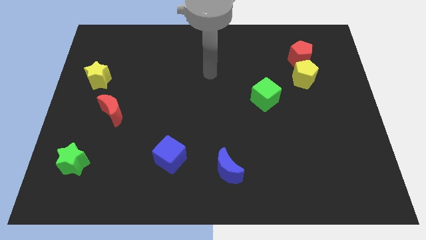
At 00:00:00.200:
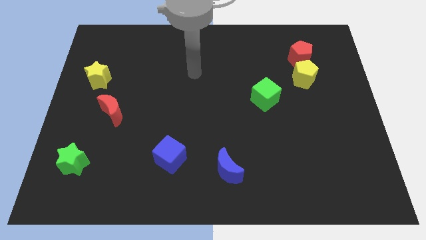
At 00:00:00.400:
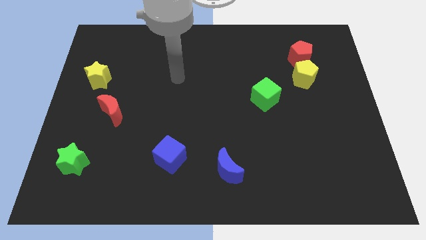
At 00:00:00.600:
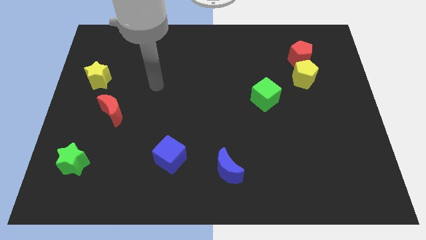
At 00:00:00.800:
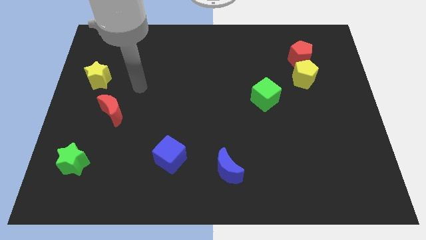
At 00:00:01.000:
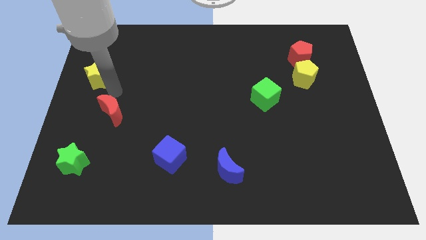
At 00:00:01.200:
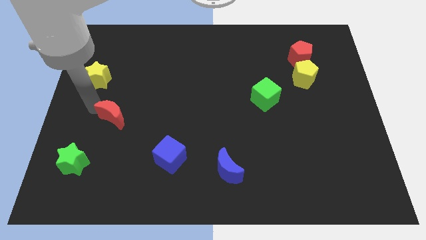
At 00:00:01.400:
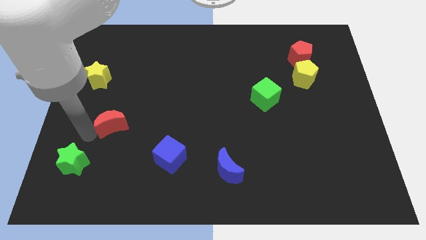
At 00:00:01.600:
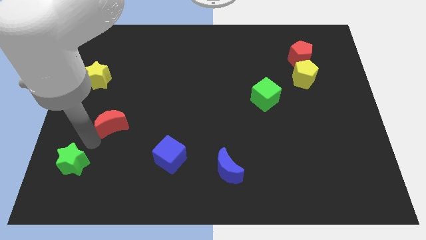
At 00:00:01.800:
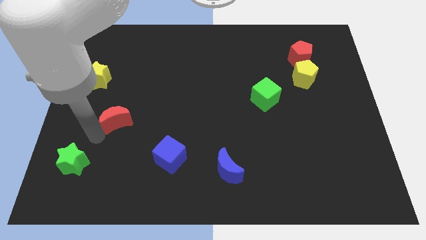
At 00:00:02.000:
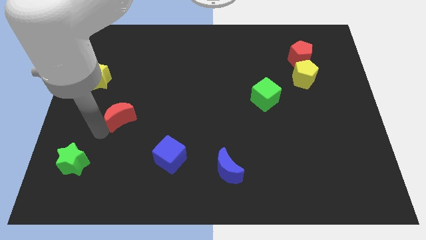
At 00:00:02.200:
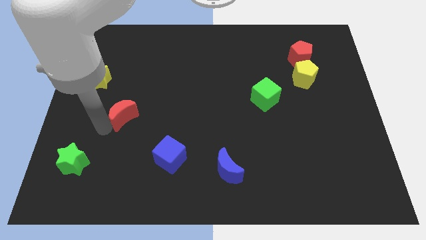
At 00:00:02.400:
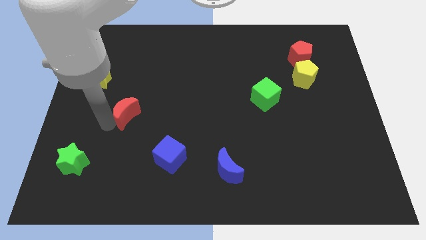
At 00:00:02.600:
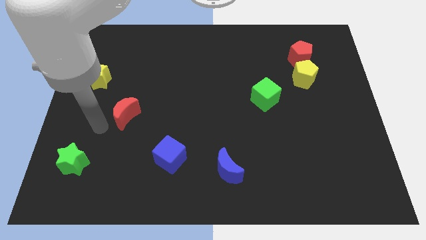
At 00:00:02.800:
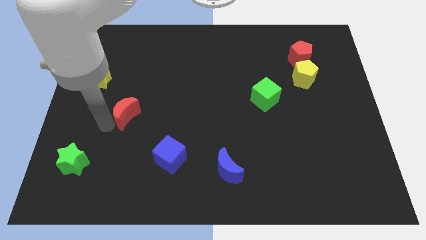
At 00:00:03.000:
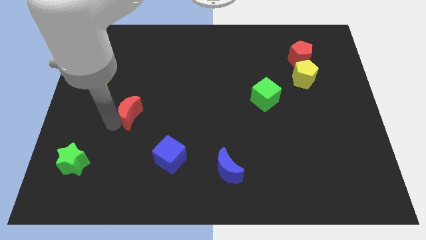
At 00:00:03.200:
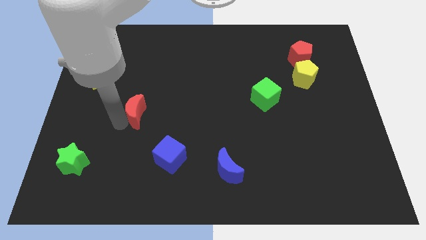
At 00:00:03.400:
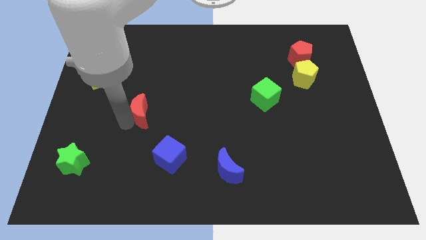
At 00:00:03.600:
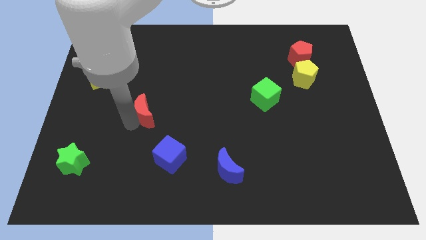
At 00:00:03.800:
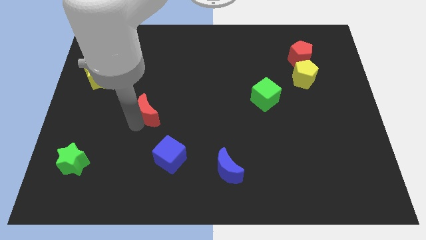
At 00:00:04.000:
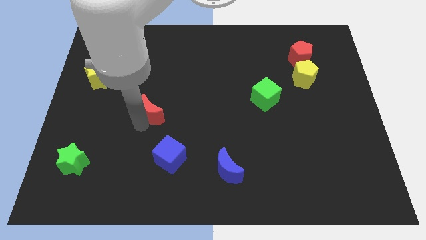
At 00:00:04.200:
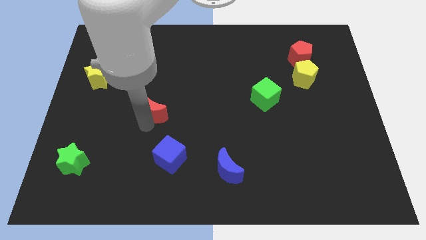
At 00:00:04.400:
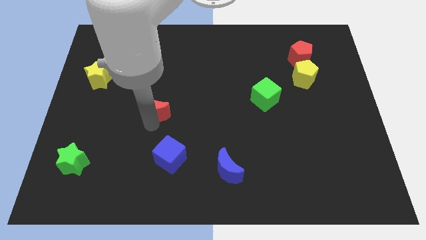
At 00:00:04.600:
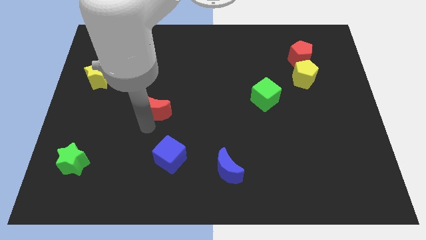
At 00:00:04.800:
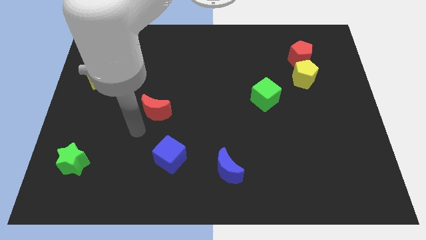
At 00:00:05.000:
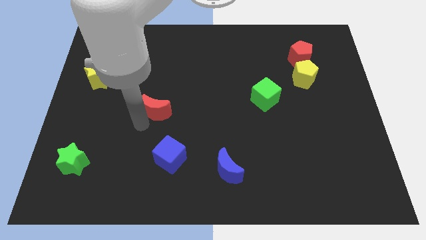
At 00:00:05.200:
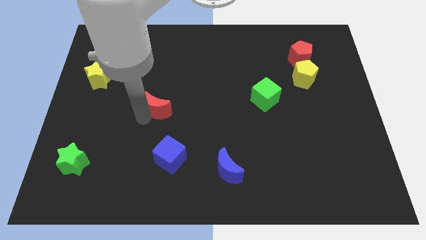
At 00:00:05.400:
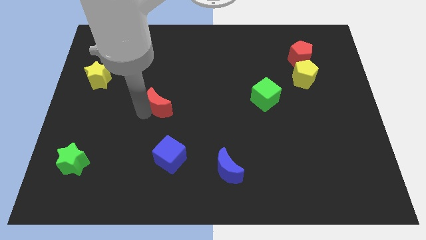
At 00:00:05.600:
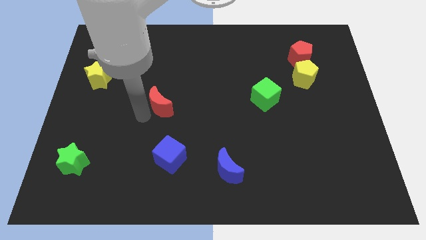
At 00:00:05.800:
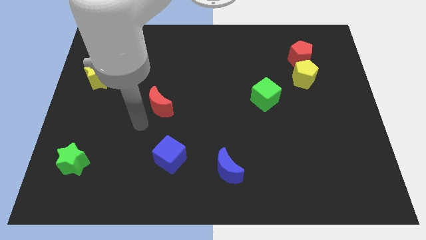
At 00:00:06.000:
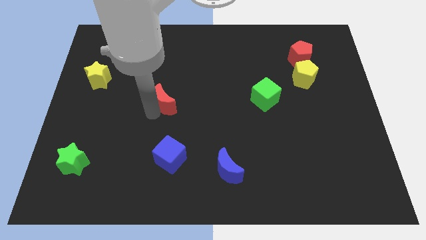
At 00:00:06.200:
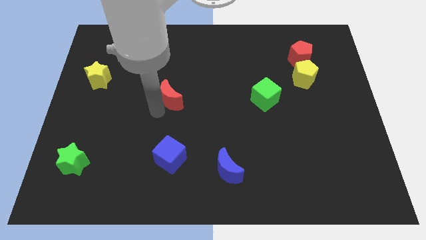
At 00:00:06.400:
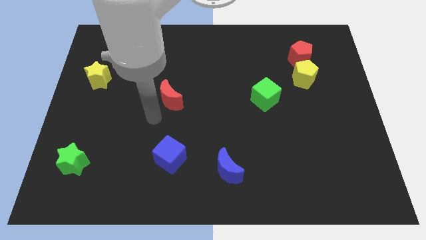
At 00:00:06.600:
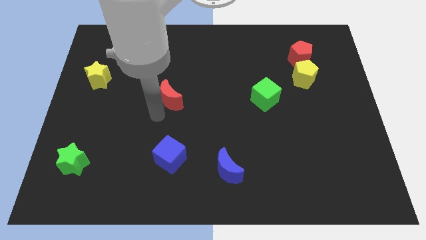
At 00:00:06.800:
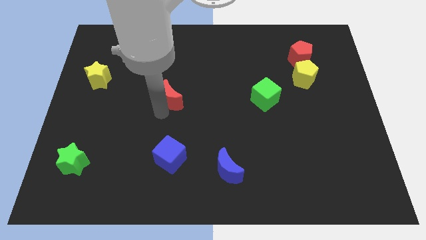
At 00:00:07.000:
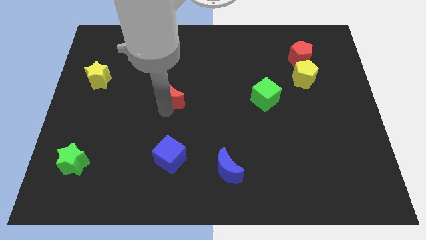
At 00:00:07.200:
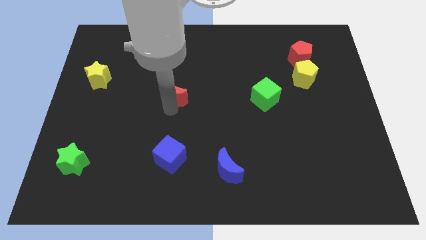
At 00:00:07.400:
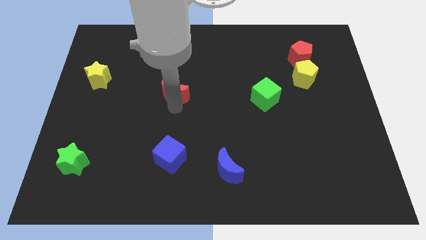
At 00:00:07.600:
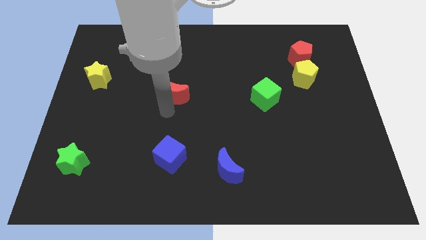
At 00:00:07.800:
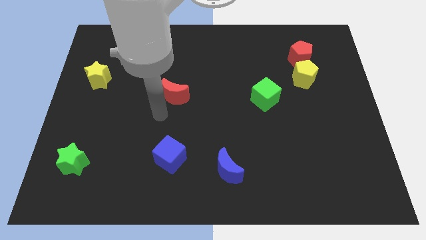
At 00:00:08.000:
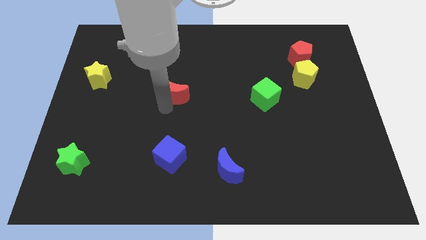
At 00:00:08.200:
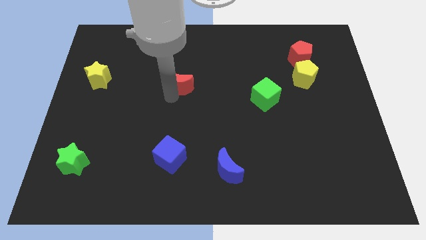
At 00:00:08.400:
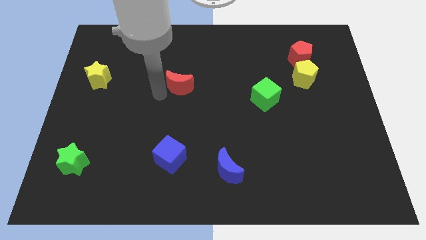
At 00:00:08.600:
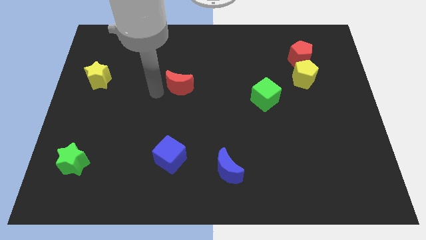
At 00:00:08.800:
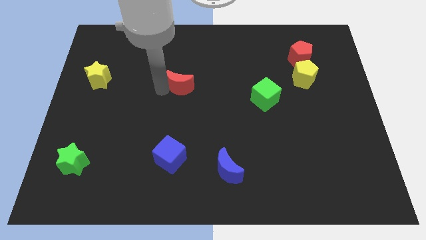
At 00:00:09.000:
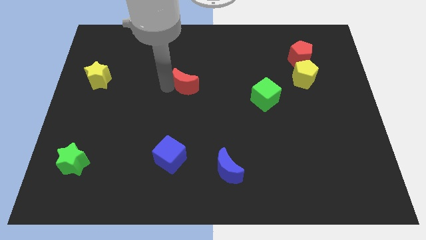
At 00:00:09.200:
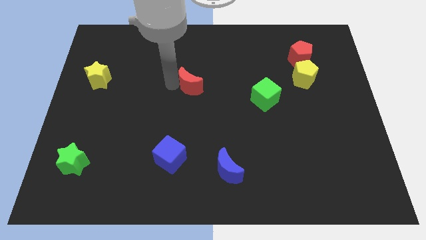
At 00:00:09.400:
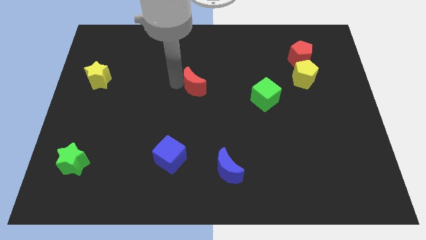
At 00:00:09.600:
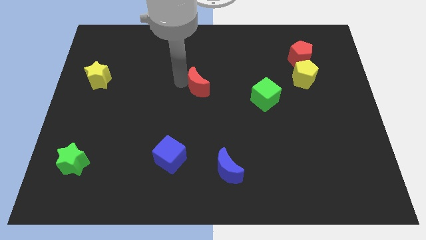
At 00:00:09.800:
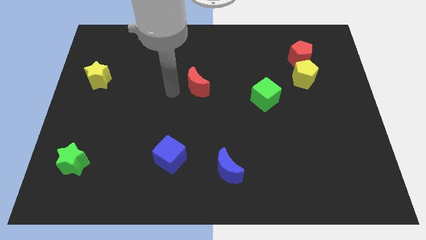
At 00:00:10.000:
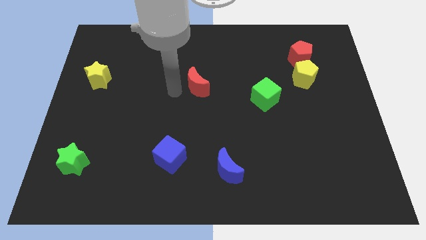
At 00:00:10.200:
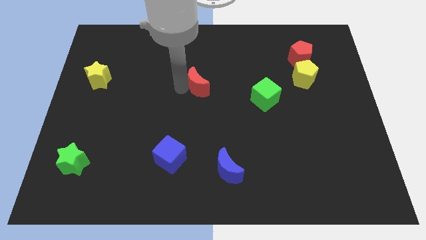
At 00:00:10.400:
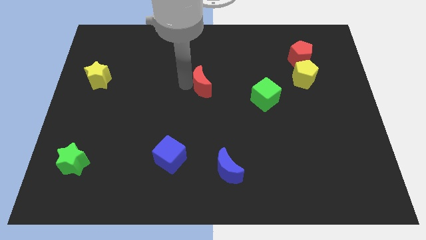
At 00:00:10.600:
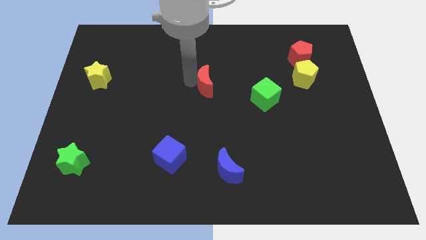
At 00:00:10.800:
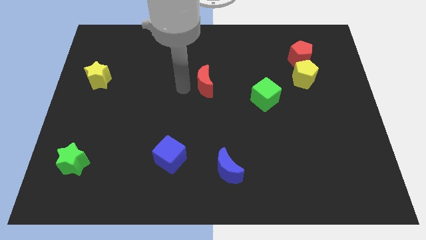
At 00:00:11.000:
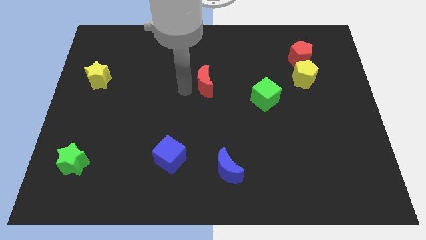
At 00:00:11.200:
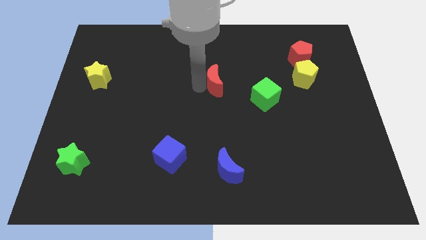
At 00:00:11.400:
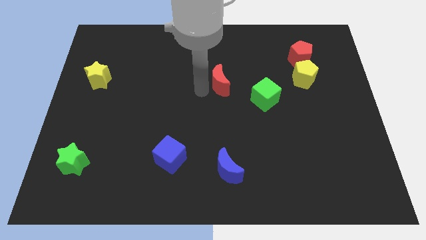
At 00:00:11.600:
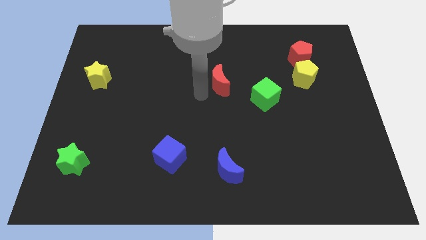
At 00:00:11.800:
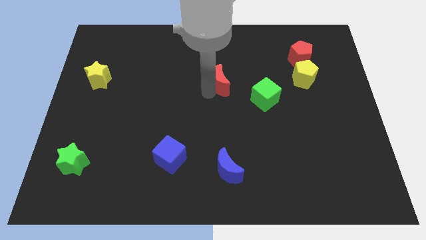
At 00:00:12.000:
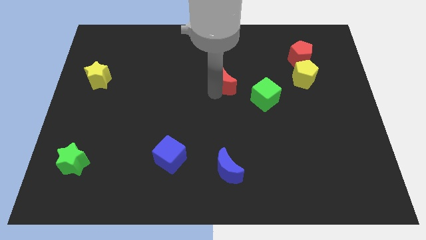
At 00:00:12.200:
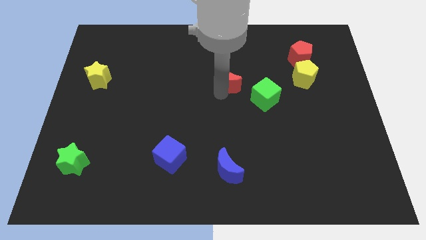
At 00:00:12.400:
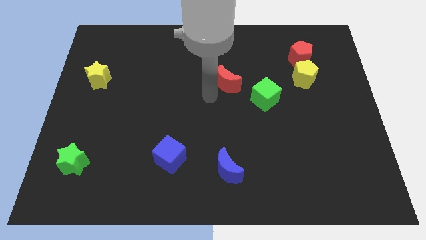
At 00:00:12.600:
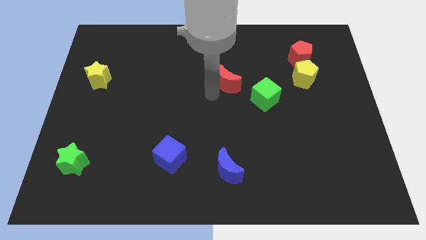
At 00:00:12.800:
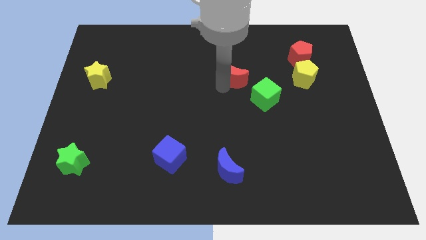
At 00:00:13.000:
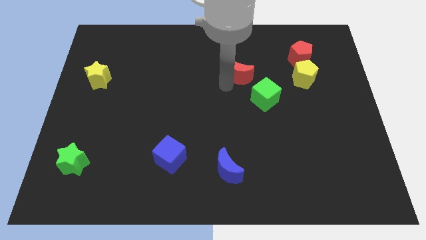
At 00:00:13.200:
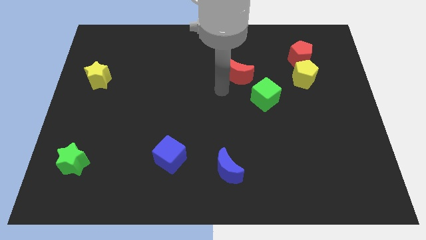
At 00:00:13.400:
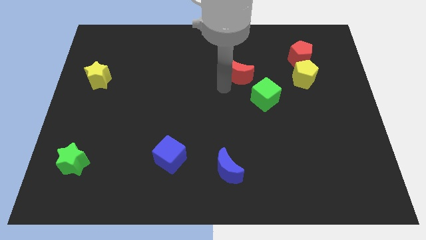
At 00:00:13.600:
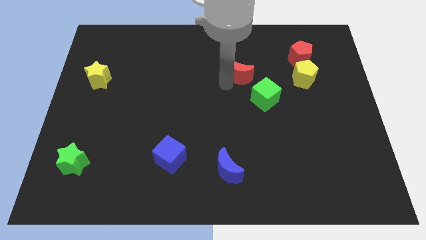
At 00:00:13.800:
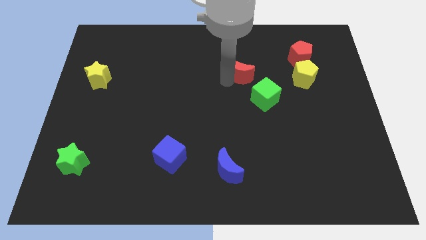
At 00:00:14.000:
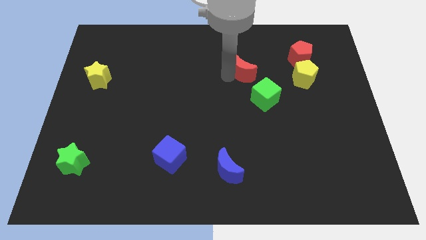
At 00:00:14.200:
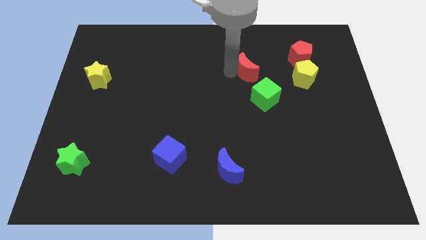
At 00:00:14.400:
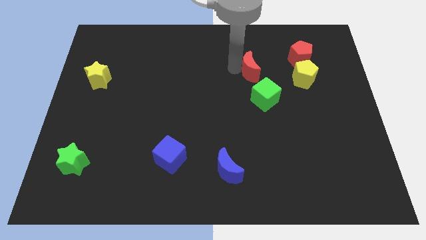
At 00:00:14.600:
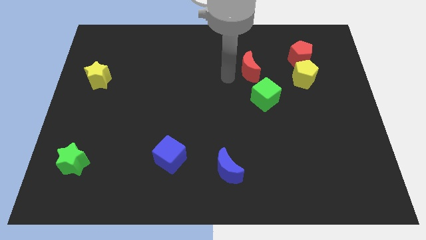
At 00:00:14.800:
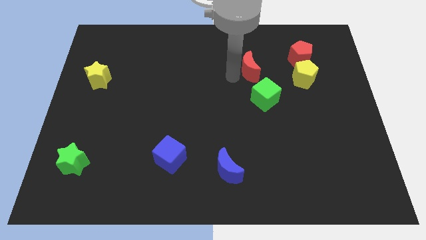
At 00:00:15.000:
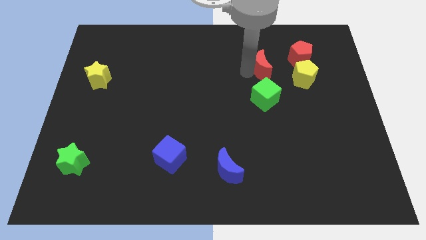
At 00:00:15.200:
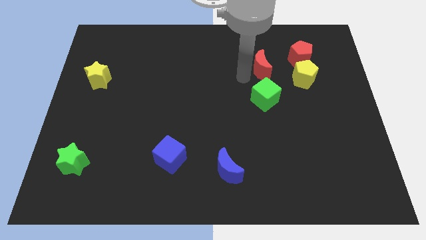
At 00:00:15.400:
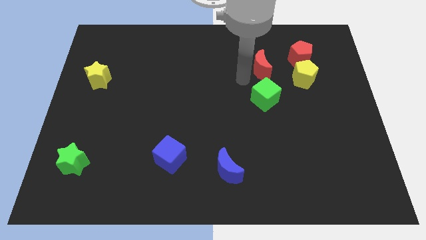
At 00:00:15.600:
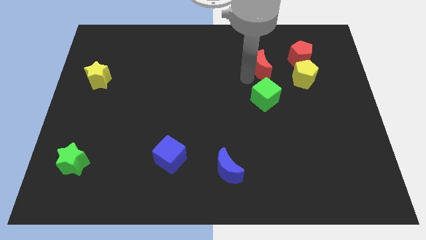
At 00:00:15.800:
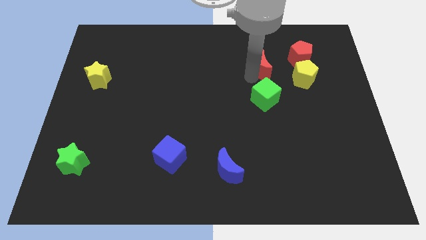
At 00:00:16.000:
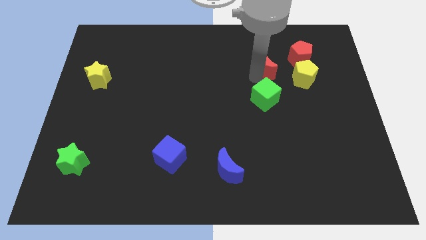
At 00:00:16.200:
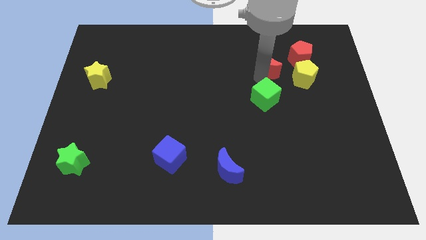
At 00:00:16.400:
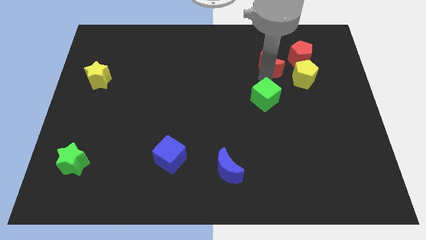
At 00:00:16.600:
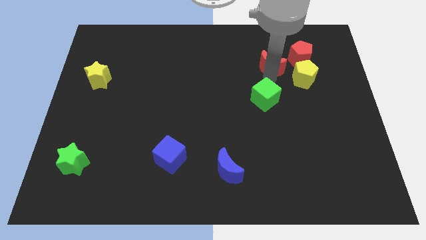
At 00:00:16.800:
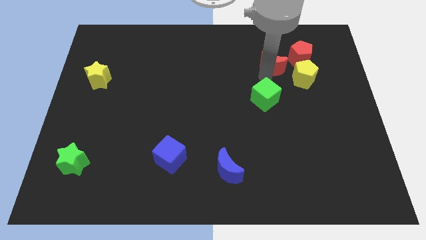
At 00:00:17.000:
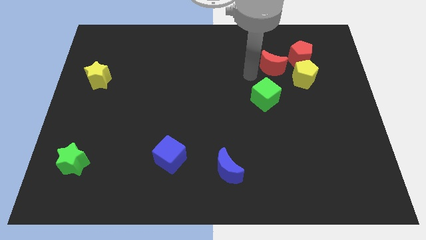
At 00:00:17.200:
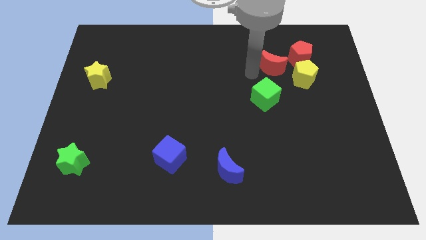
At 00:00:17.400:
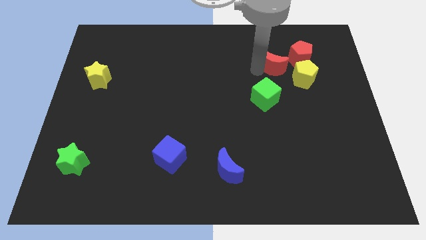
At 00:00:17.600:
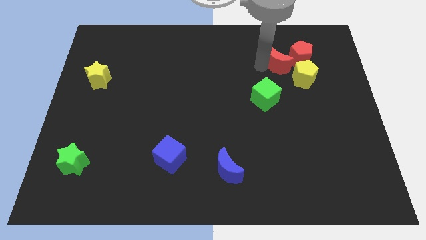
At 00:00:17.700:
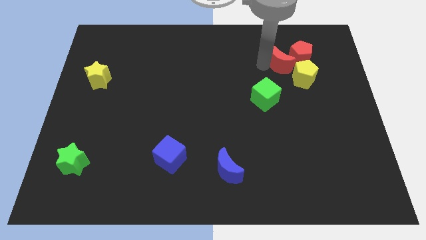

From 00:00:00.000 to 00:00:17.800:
slide the red moon towards the red pentagon
